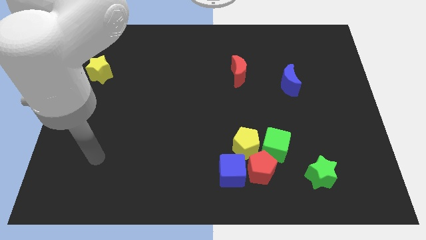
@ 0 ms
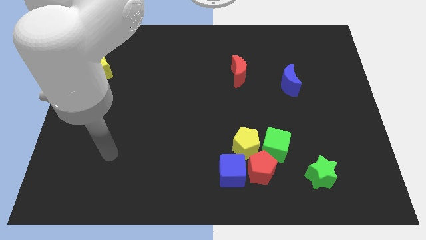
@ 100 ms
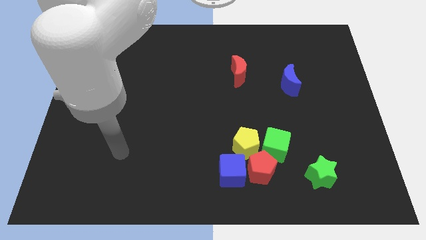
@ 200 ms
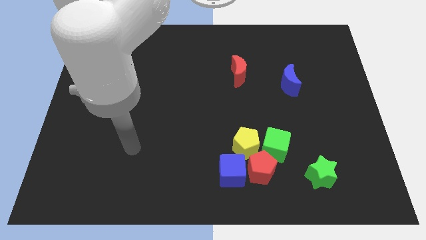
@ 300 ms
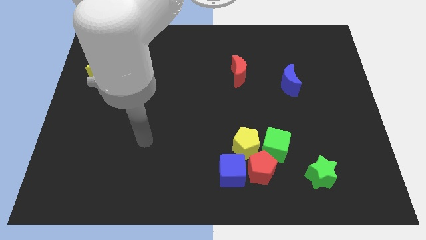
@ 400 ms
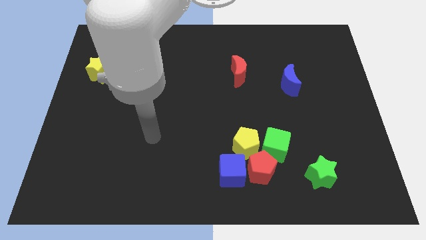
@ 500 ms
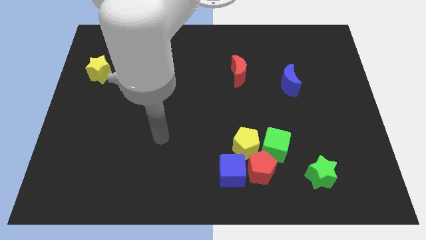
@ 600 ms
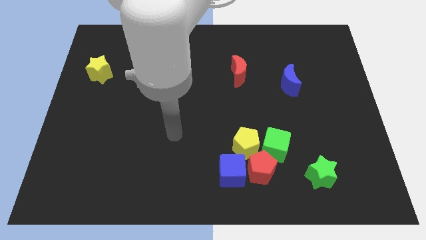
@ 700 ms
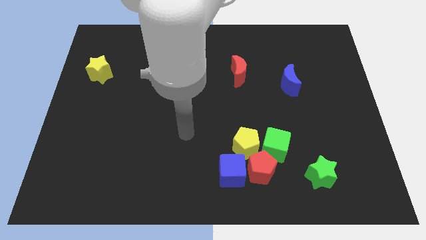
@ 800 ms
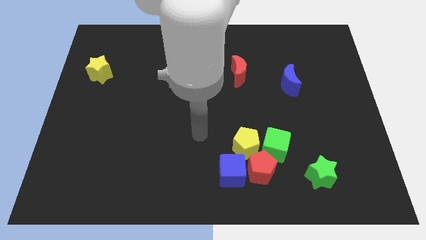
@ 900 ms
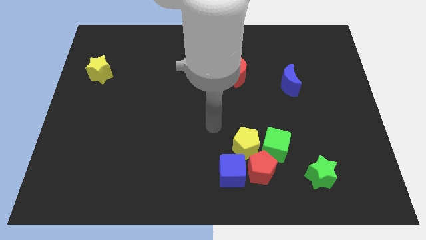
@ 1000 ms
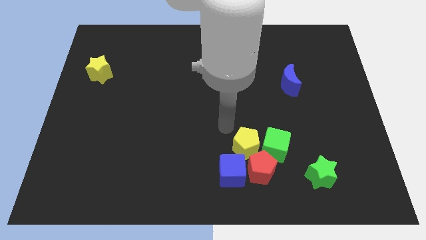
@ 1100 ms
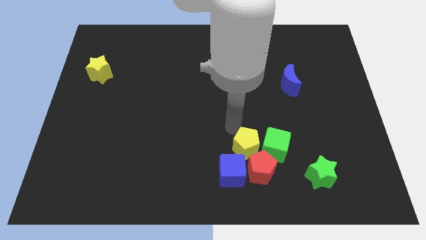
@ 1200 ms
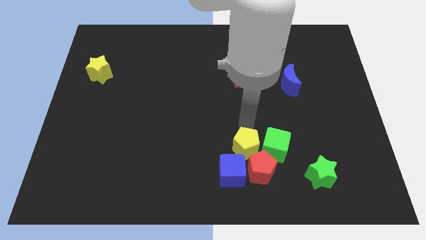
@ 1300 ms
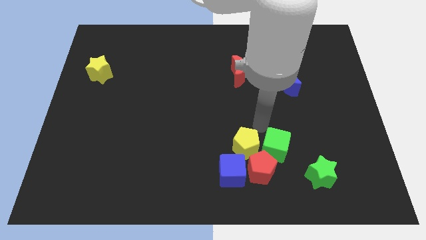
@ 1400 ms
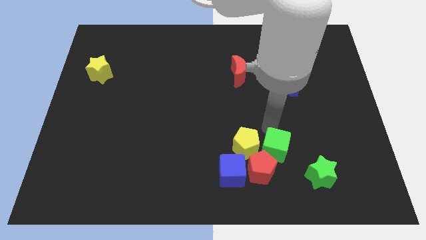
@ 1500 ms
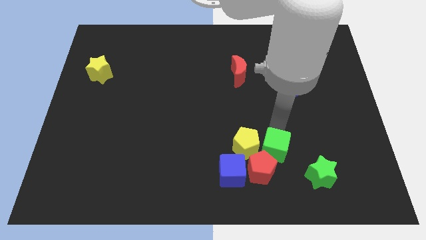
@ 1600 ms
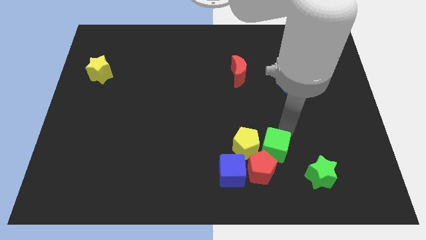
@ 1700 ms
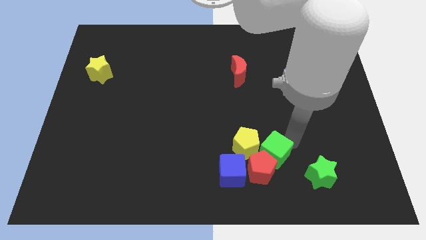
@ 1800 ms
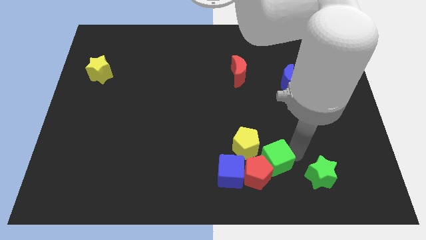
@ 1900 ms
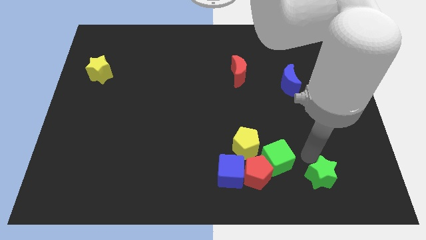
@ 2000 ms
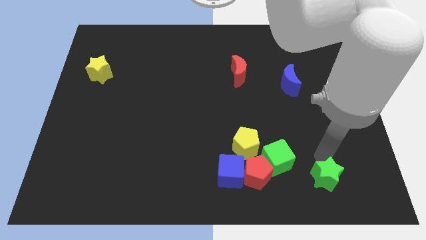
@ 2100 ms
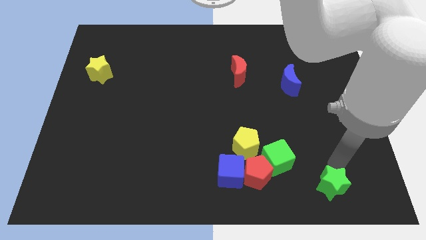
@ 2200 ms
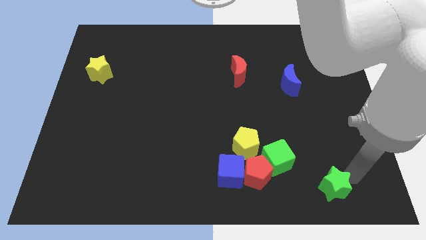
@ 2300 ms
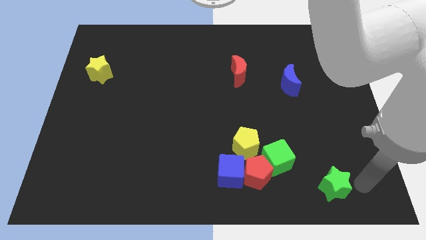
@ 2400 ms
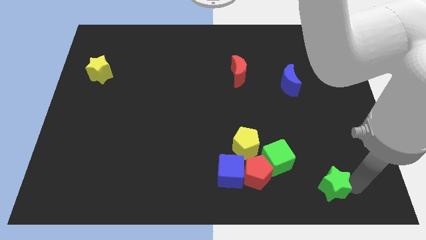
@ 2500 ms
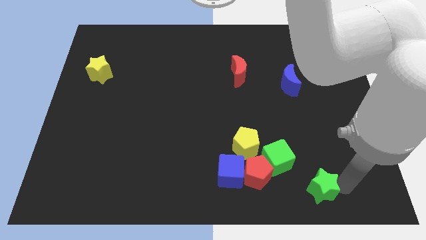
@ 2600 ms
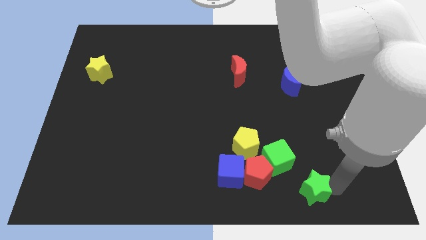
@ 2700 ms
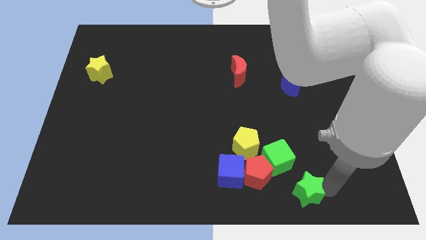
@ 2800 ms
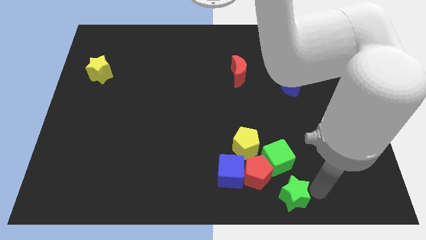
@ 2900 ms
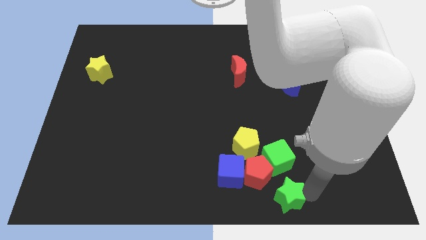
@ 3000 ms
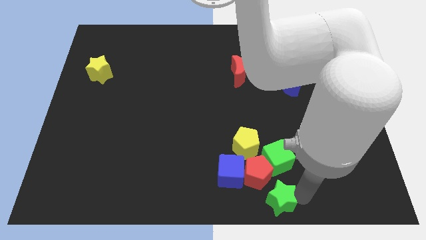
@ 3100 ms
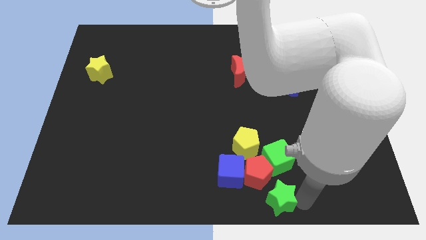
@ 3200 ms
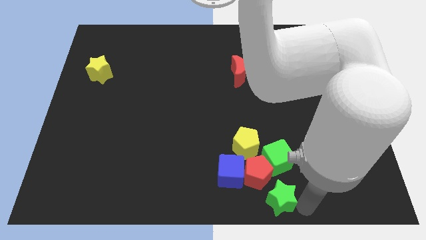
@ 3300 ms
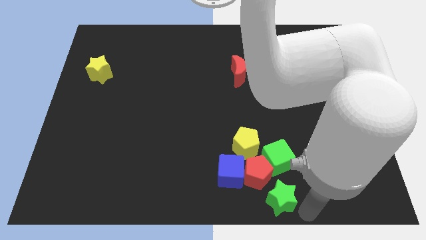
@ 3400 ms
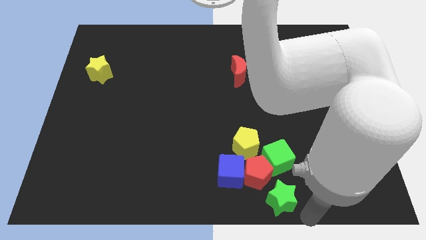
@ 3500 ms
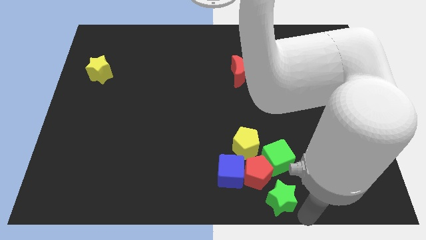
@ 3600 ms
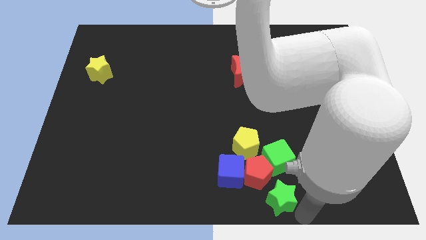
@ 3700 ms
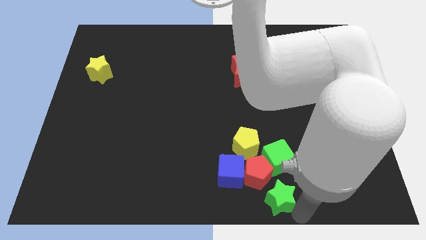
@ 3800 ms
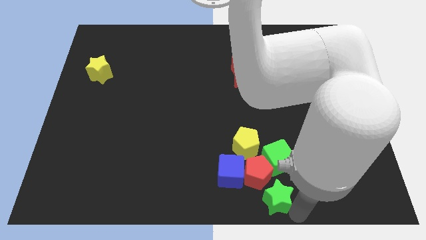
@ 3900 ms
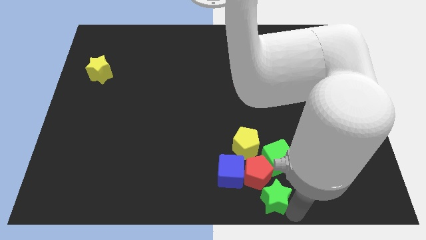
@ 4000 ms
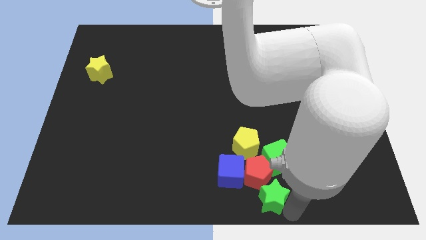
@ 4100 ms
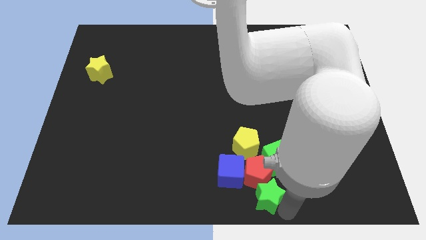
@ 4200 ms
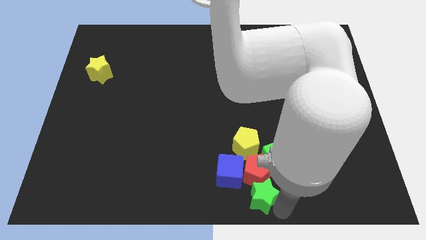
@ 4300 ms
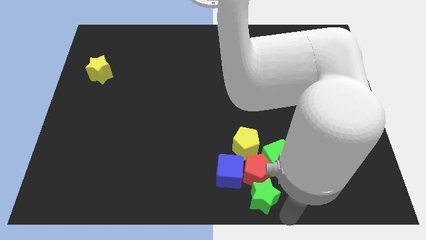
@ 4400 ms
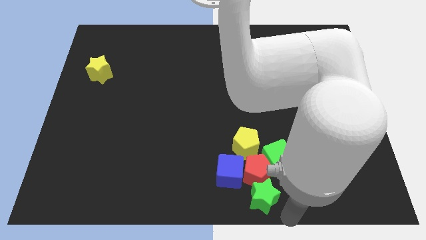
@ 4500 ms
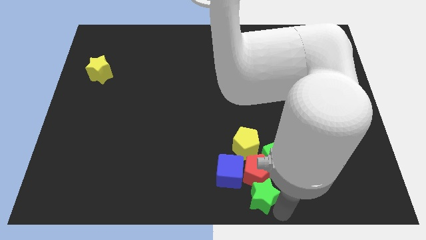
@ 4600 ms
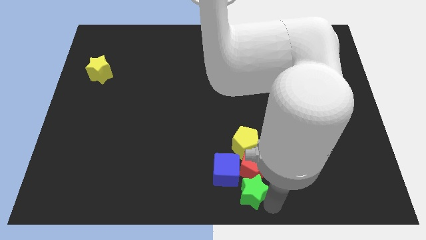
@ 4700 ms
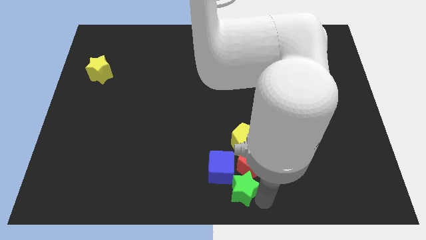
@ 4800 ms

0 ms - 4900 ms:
slide the green star to the blue cube

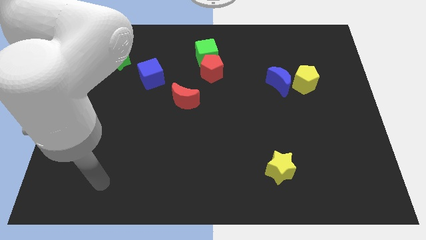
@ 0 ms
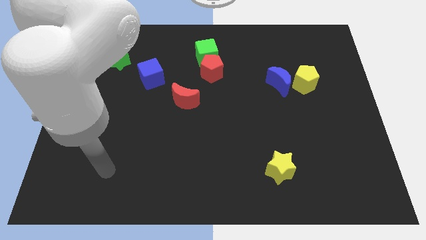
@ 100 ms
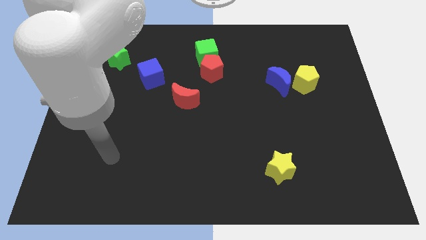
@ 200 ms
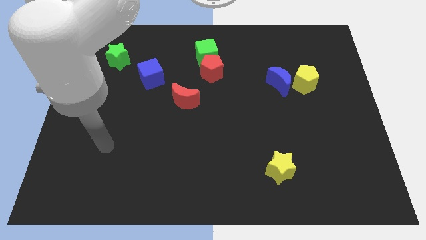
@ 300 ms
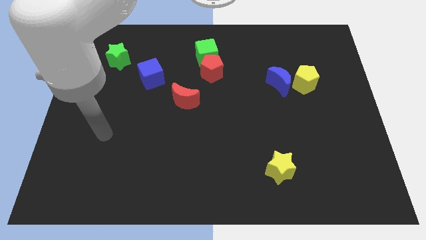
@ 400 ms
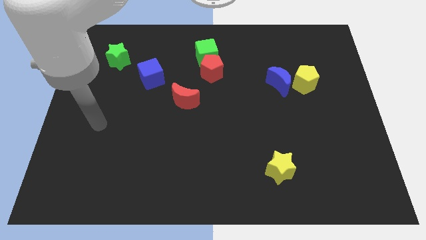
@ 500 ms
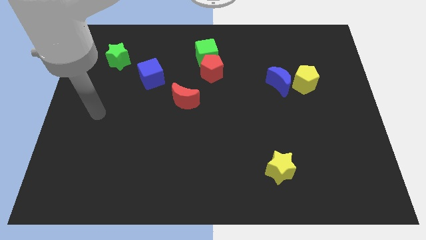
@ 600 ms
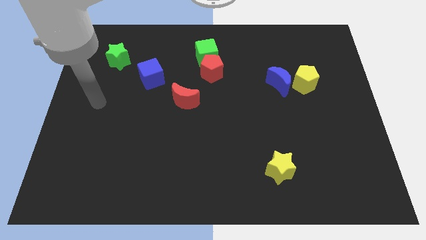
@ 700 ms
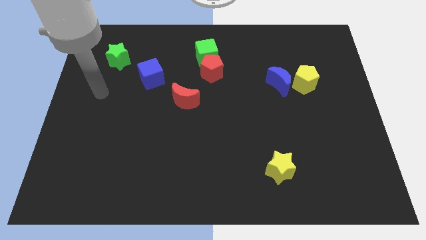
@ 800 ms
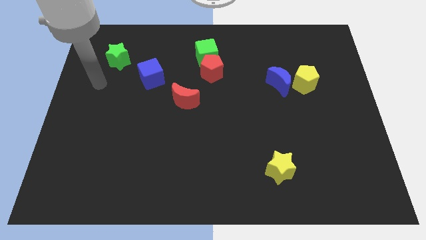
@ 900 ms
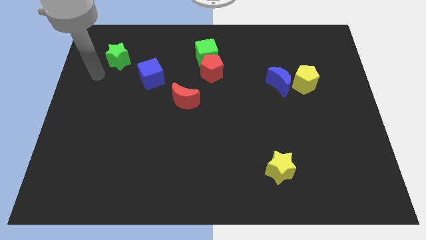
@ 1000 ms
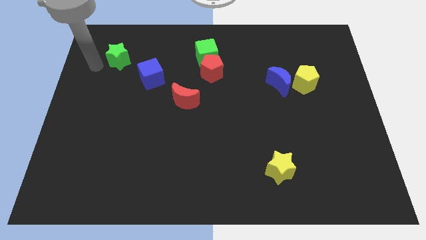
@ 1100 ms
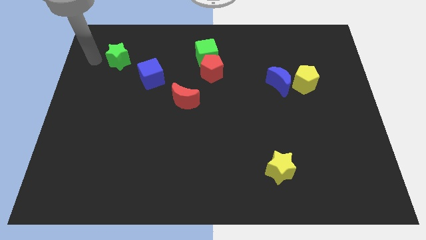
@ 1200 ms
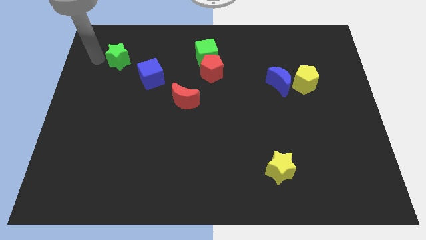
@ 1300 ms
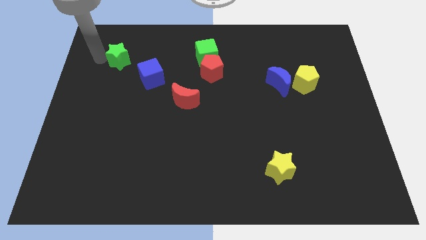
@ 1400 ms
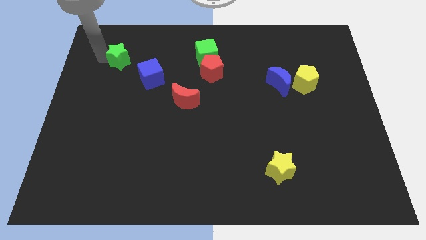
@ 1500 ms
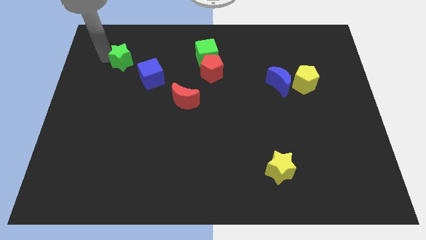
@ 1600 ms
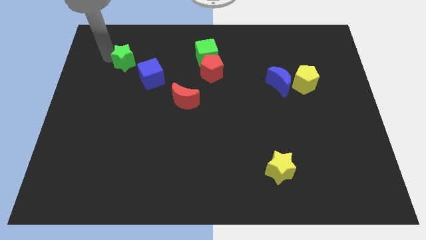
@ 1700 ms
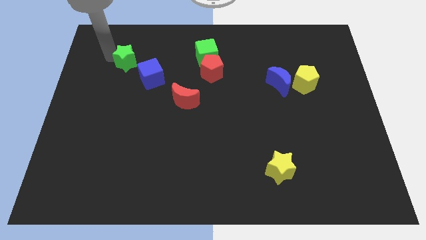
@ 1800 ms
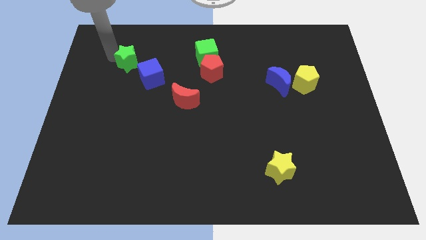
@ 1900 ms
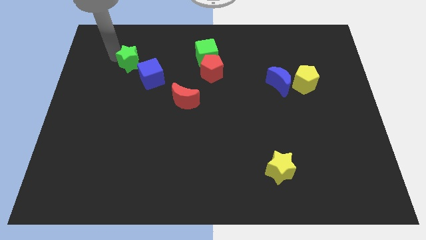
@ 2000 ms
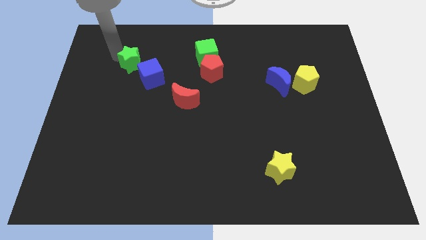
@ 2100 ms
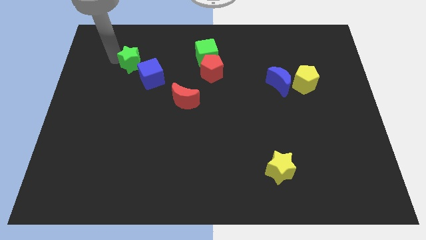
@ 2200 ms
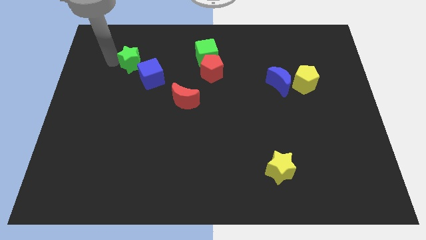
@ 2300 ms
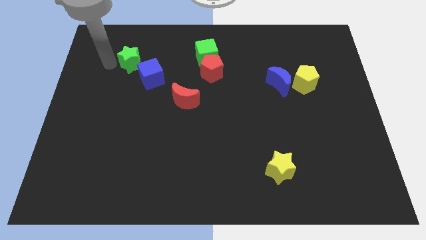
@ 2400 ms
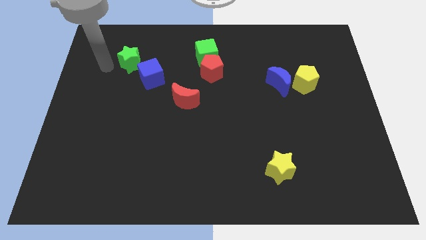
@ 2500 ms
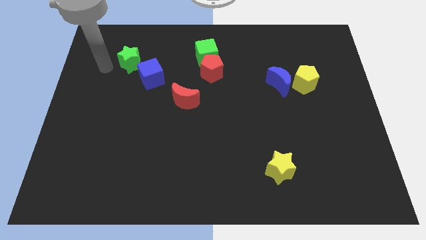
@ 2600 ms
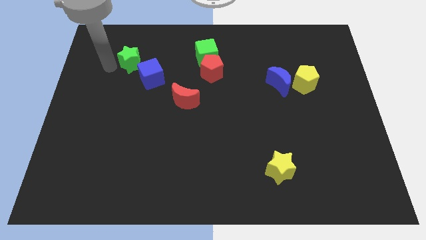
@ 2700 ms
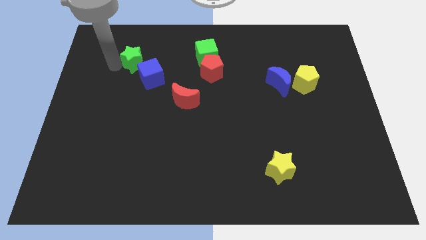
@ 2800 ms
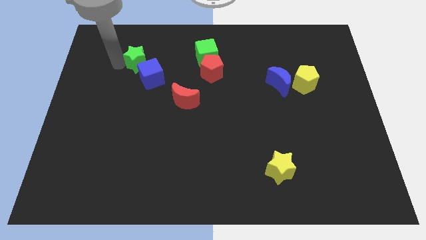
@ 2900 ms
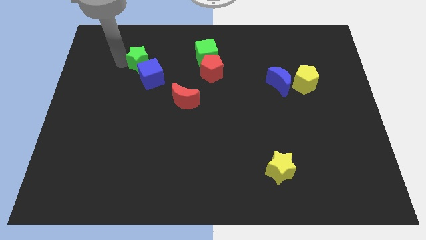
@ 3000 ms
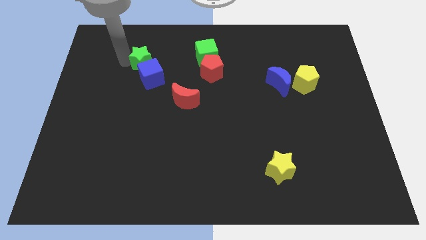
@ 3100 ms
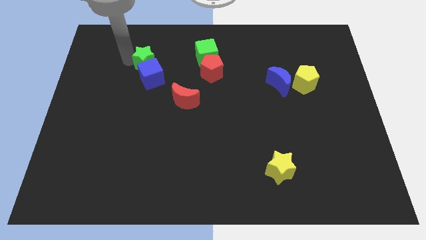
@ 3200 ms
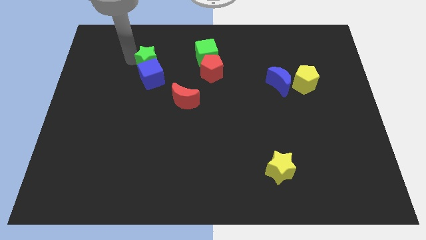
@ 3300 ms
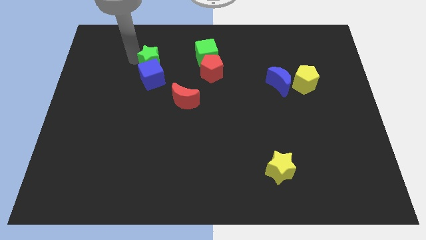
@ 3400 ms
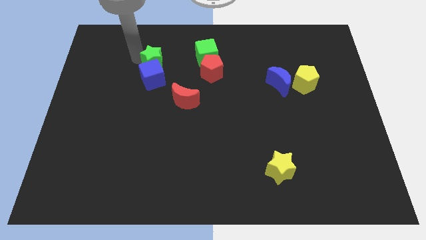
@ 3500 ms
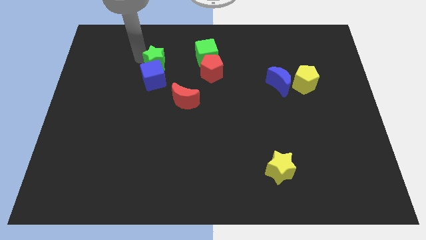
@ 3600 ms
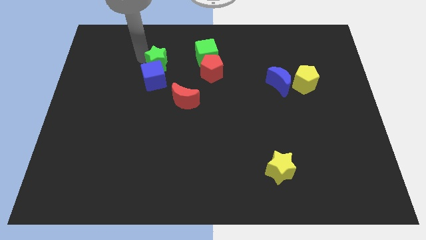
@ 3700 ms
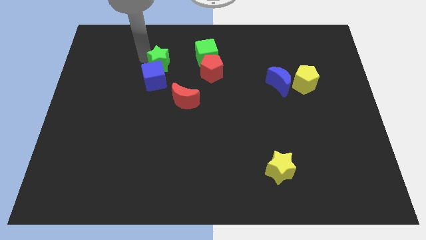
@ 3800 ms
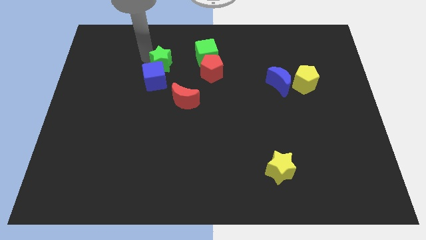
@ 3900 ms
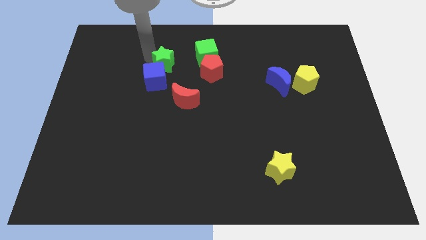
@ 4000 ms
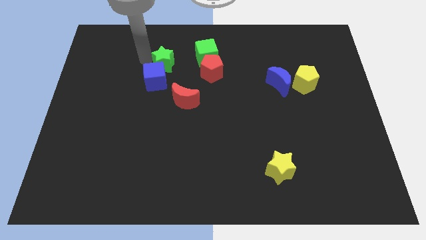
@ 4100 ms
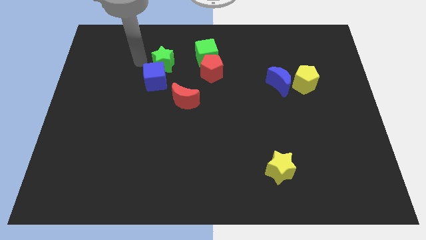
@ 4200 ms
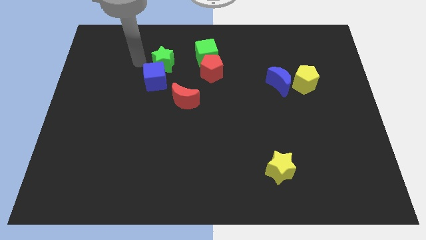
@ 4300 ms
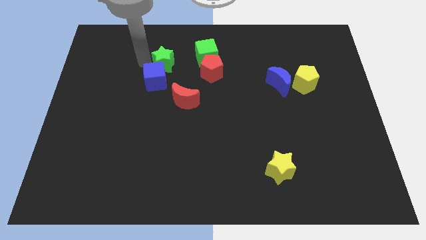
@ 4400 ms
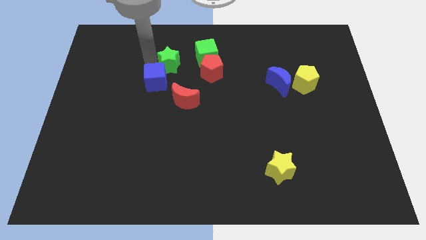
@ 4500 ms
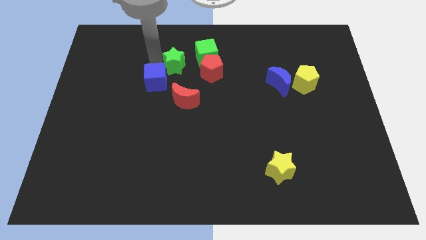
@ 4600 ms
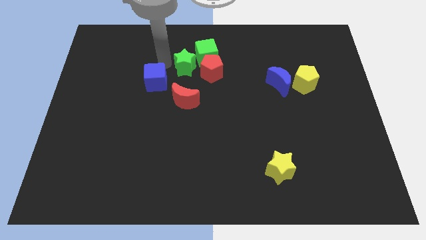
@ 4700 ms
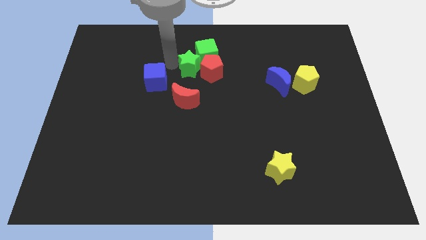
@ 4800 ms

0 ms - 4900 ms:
push the green star next to the red pentagon
